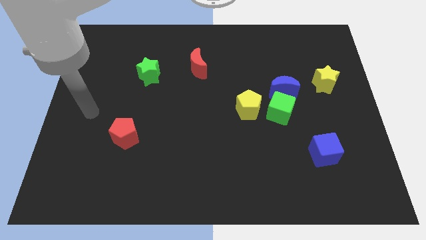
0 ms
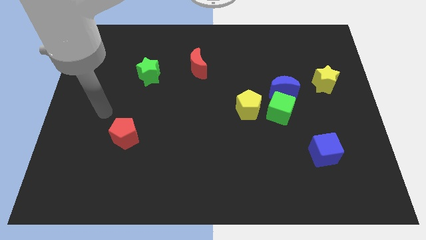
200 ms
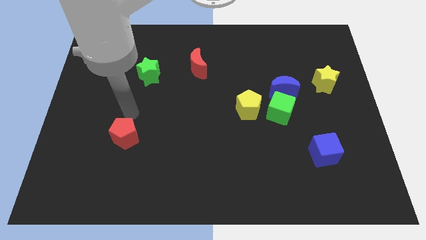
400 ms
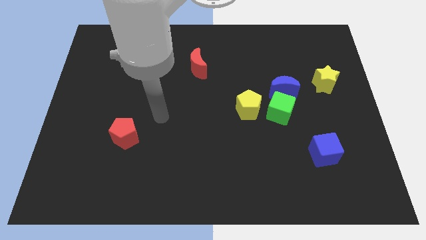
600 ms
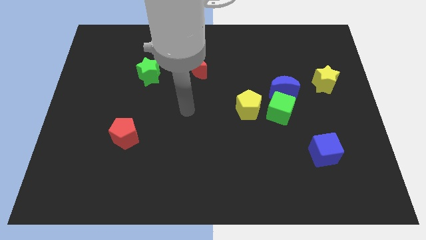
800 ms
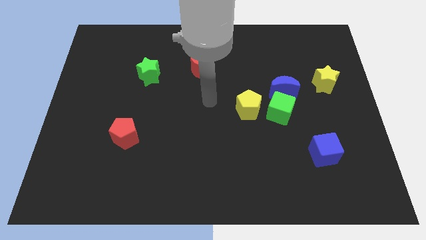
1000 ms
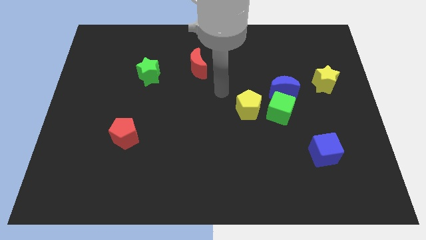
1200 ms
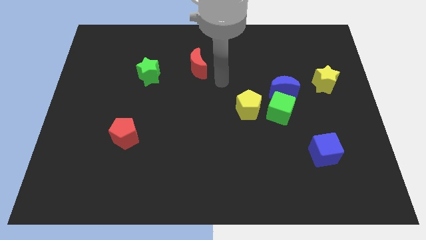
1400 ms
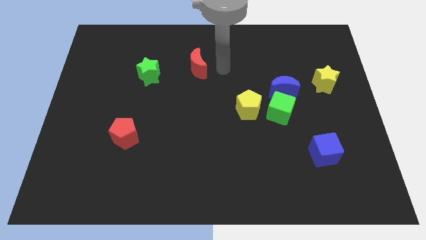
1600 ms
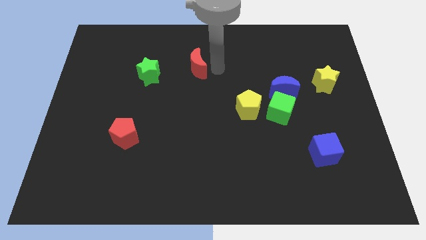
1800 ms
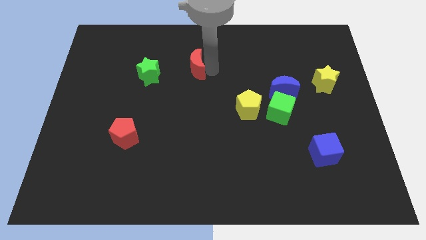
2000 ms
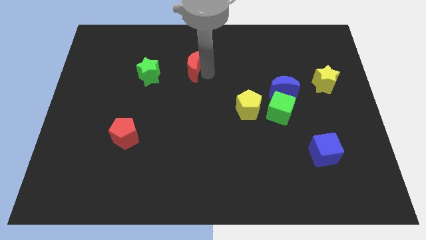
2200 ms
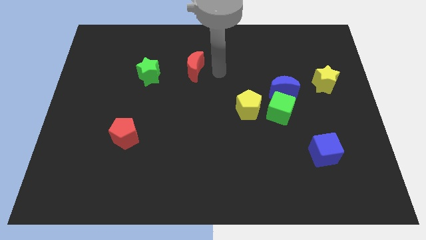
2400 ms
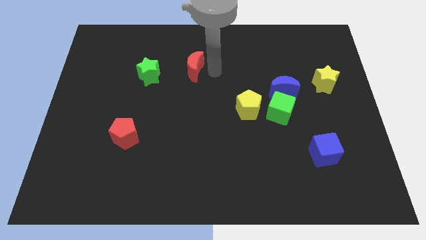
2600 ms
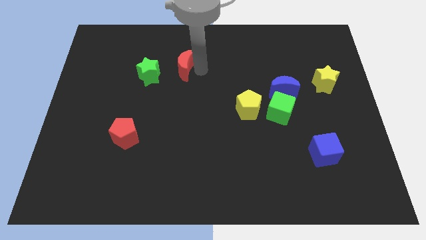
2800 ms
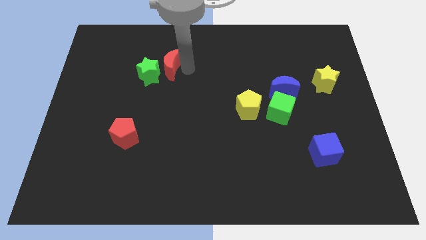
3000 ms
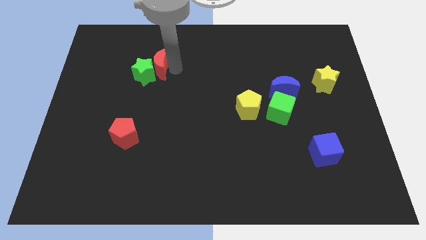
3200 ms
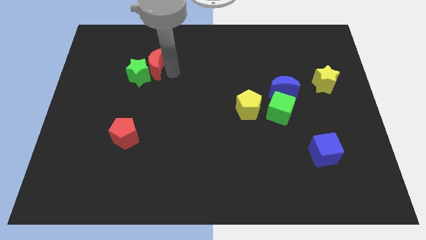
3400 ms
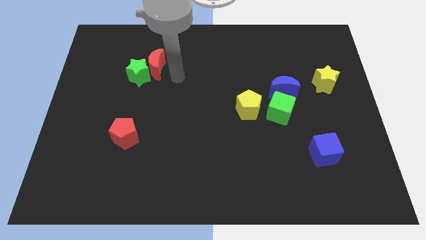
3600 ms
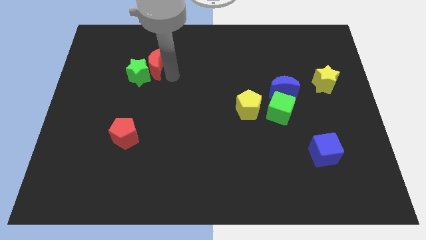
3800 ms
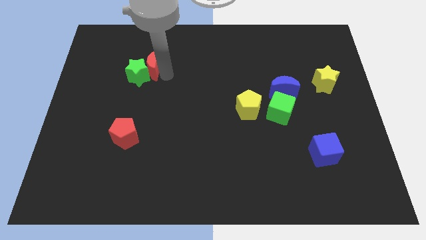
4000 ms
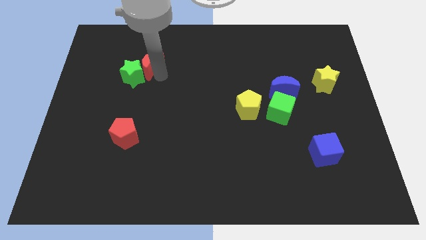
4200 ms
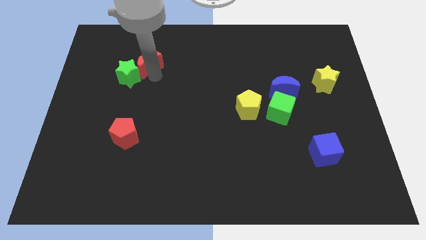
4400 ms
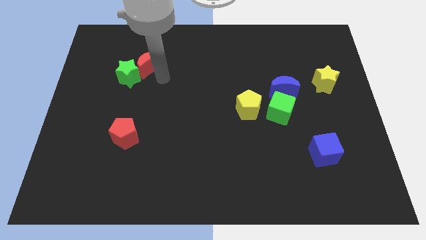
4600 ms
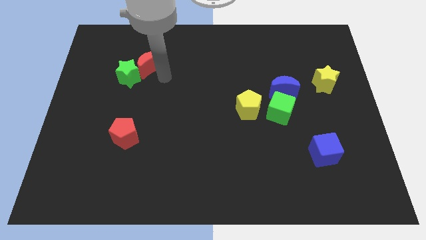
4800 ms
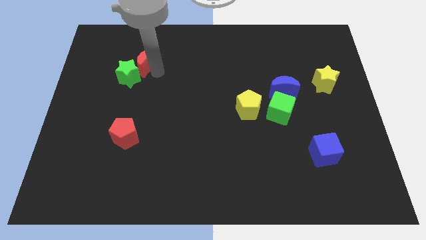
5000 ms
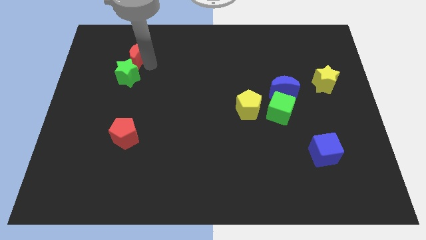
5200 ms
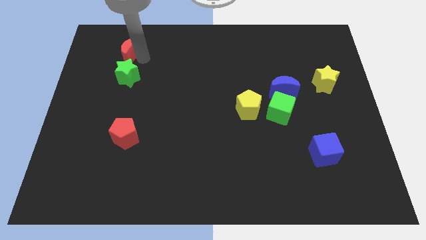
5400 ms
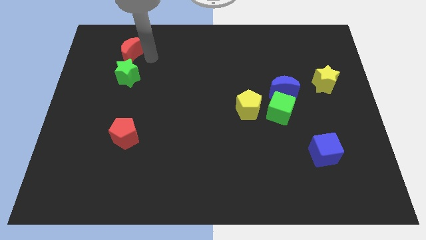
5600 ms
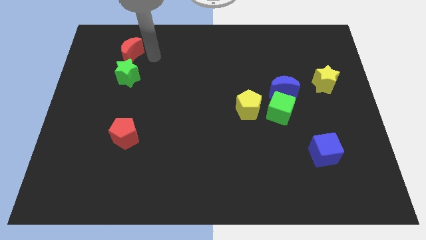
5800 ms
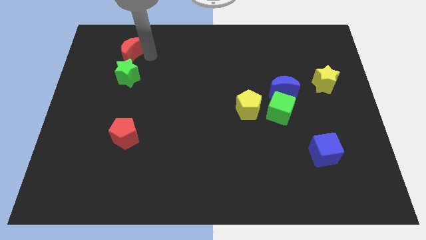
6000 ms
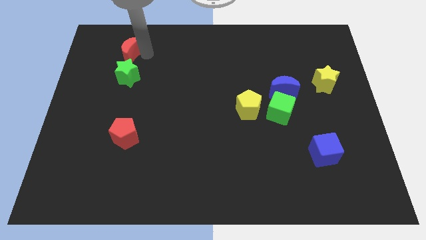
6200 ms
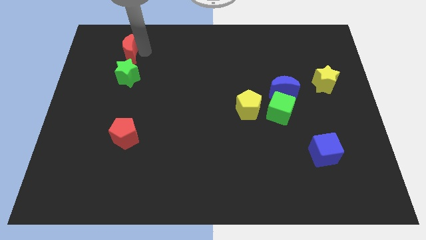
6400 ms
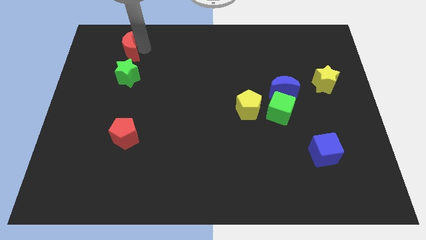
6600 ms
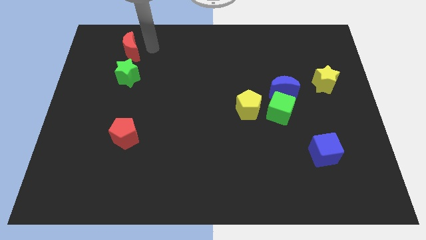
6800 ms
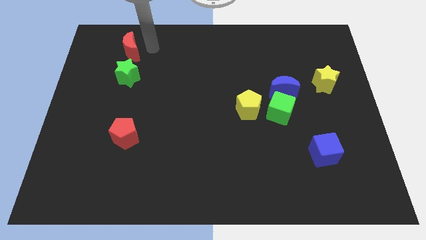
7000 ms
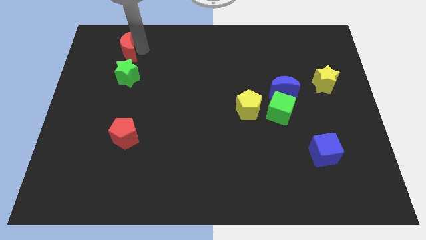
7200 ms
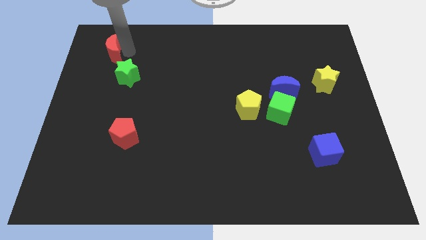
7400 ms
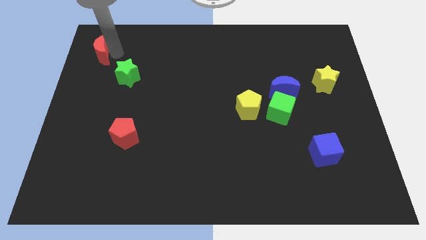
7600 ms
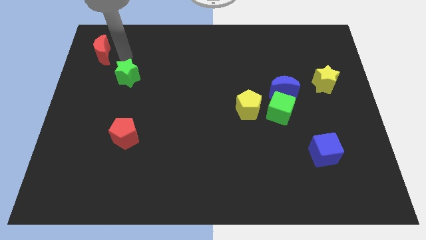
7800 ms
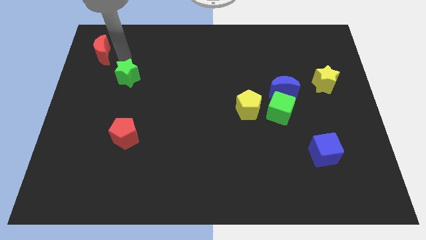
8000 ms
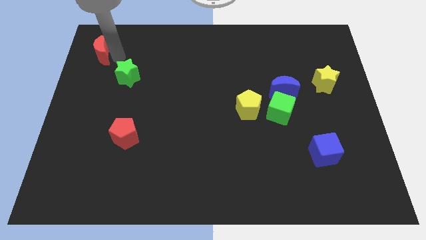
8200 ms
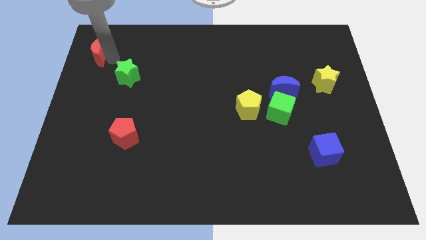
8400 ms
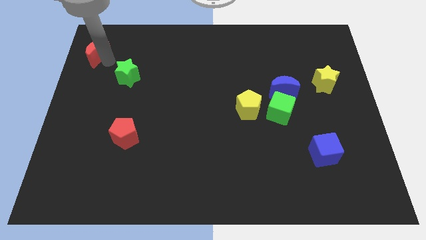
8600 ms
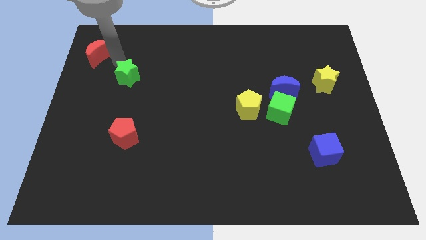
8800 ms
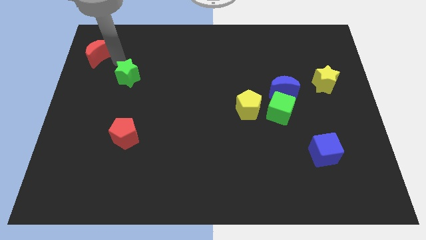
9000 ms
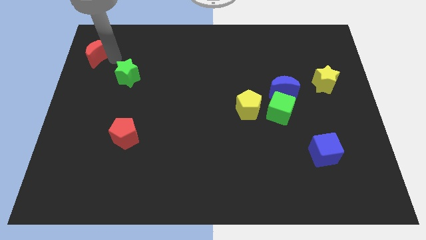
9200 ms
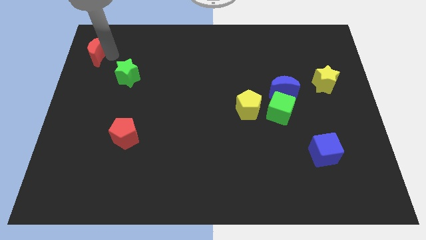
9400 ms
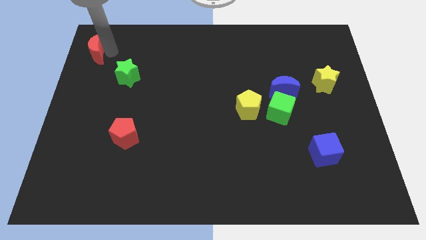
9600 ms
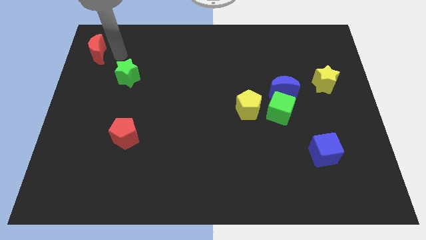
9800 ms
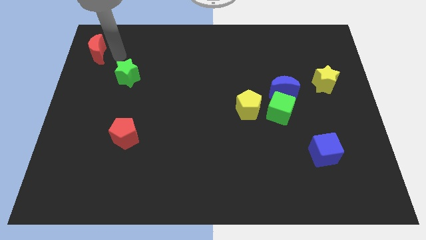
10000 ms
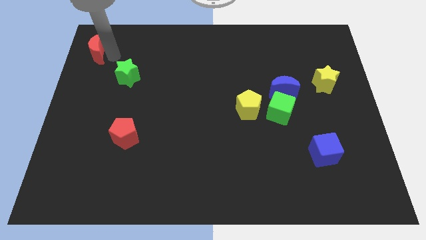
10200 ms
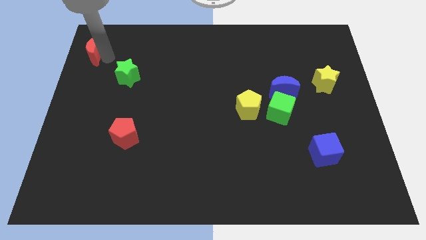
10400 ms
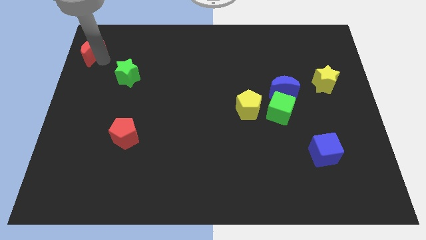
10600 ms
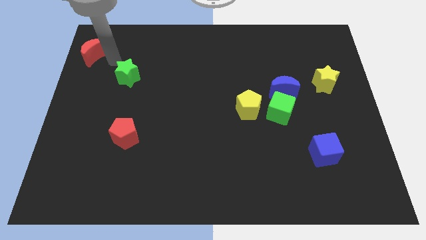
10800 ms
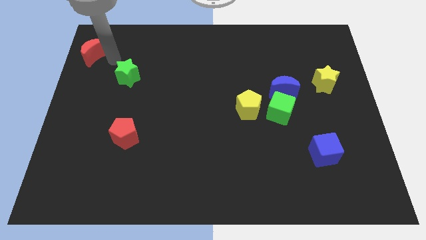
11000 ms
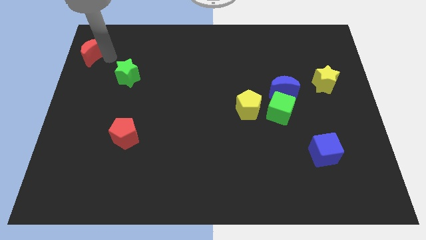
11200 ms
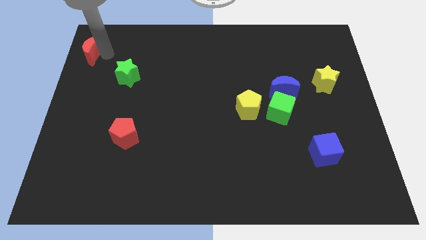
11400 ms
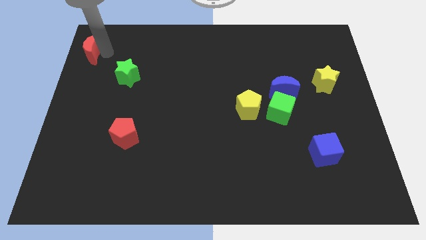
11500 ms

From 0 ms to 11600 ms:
put the red moon to the upper left corner

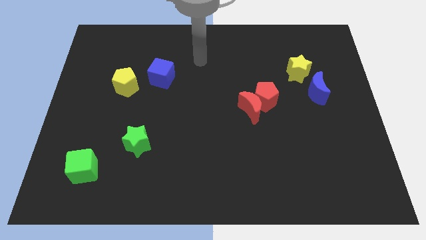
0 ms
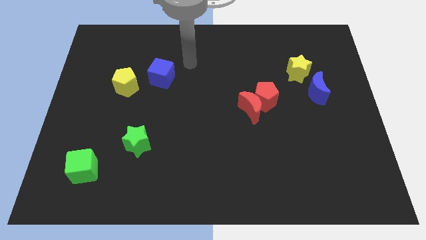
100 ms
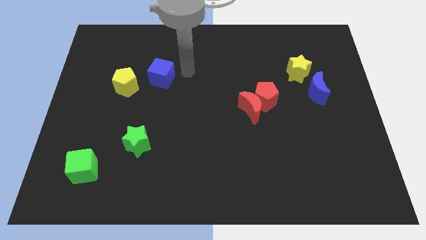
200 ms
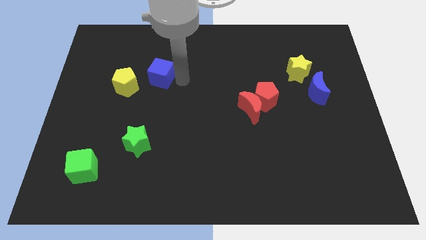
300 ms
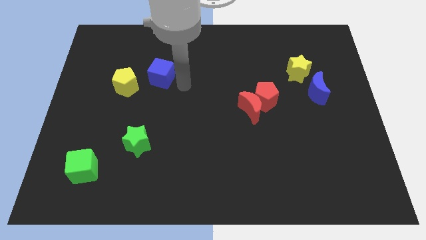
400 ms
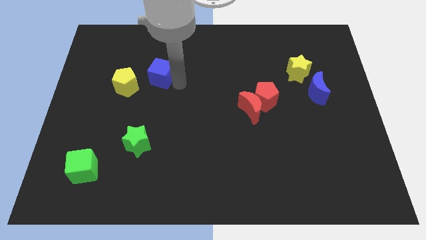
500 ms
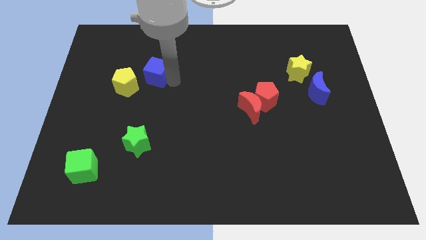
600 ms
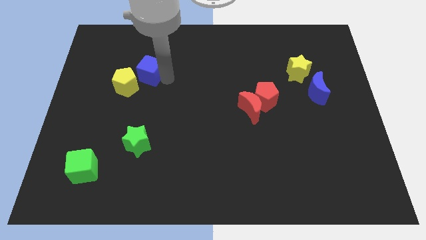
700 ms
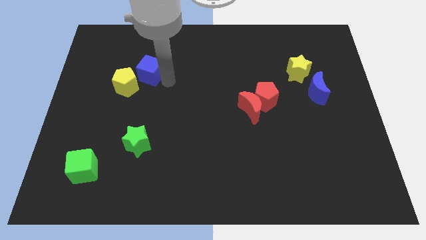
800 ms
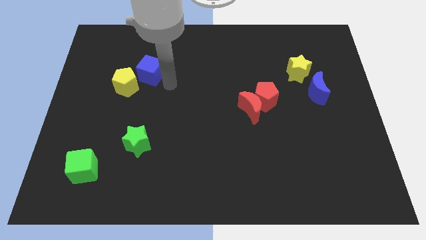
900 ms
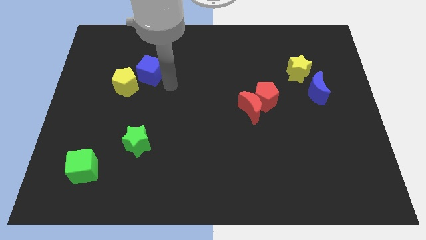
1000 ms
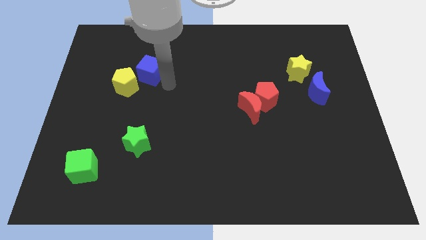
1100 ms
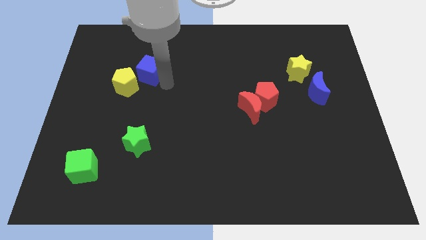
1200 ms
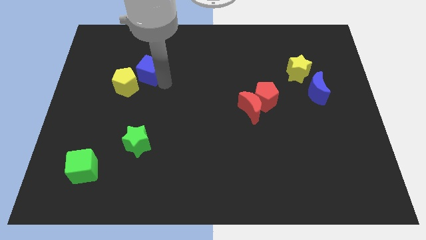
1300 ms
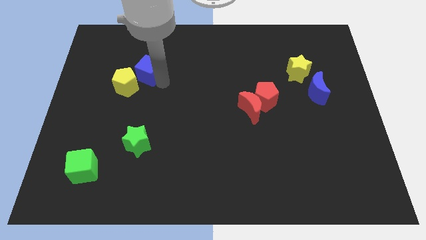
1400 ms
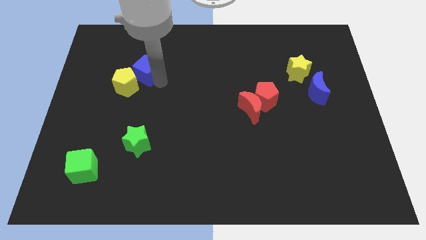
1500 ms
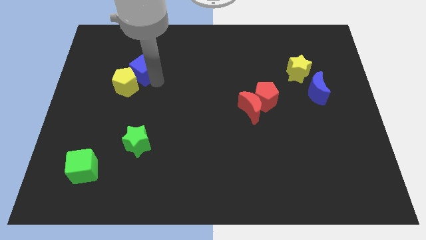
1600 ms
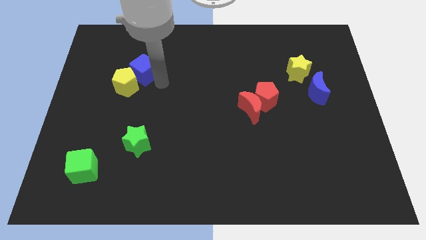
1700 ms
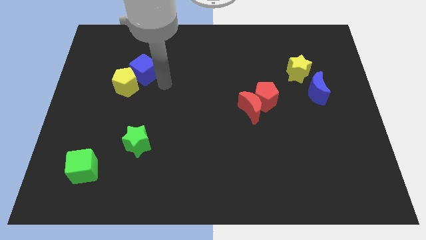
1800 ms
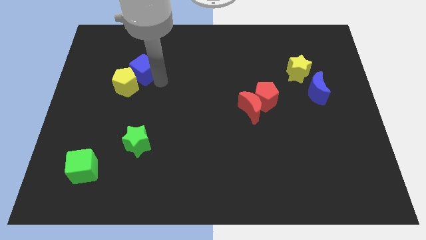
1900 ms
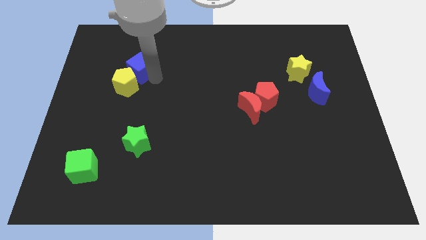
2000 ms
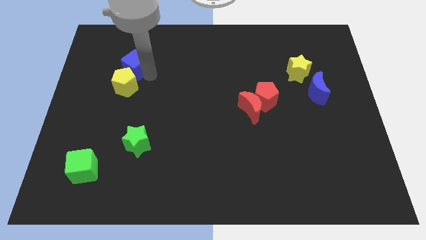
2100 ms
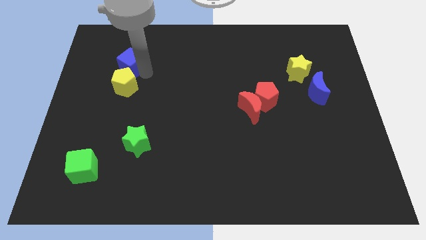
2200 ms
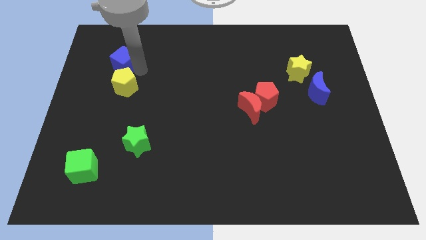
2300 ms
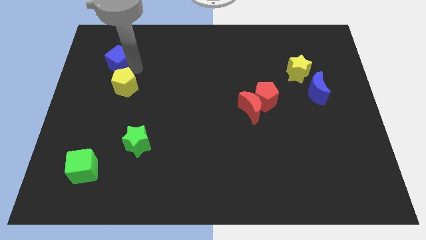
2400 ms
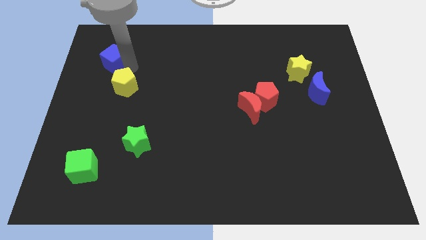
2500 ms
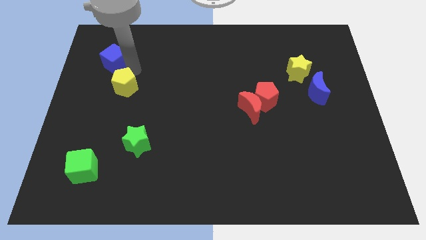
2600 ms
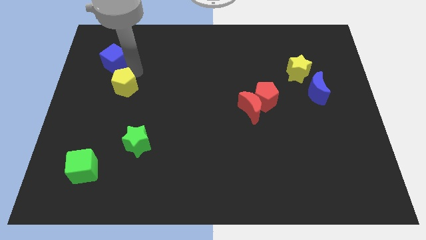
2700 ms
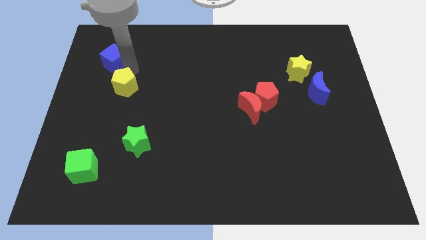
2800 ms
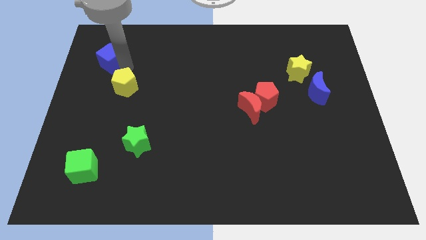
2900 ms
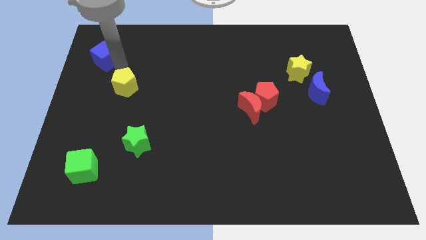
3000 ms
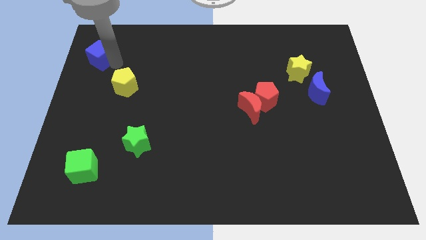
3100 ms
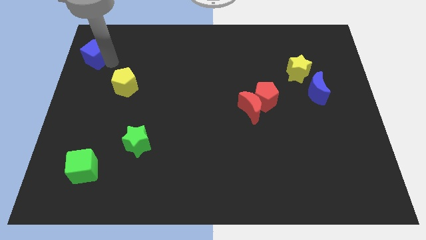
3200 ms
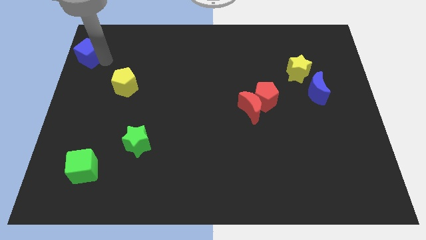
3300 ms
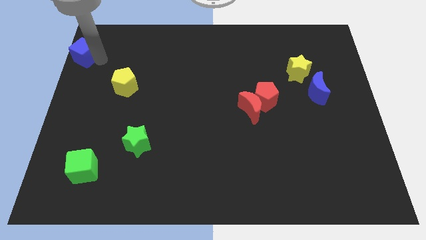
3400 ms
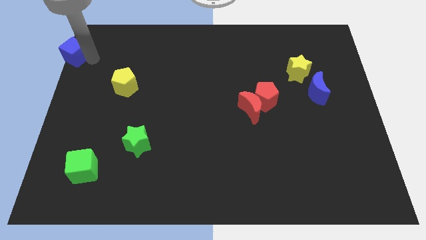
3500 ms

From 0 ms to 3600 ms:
push the blue cube to the top left corner
